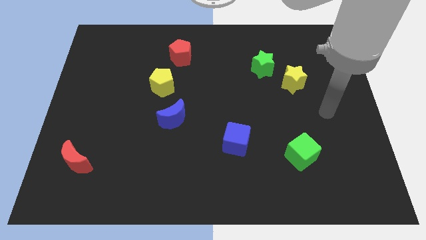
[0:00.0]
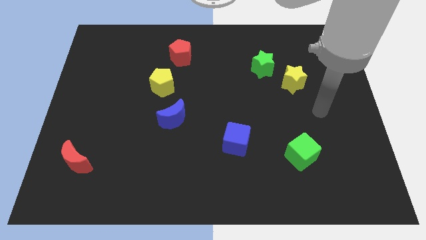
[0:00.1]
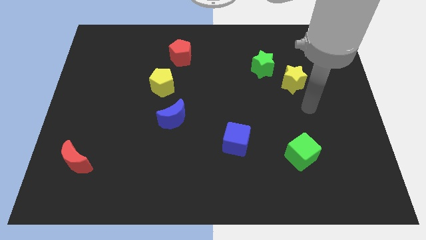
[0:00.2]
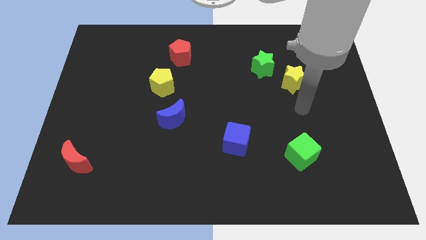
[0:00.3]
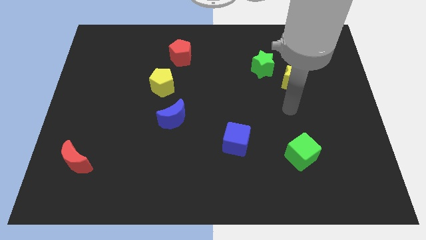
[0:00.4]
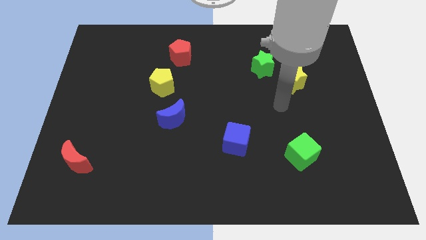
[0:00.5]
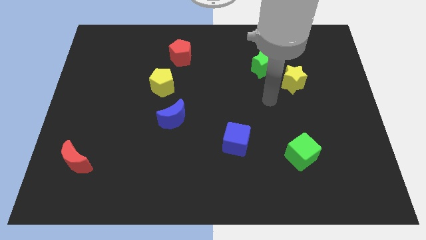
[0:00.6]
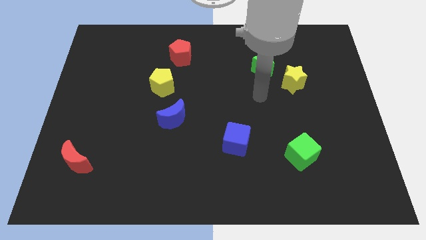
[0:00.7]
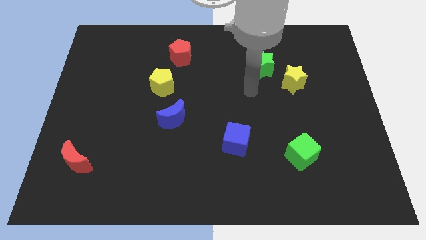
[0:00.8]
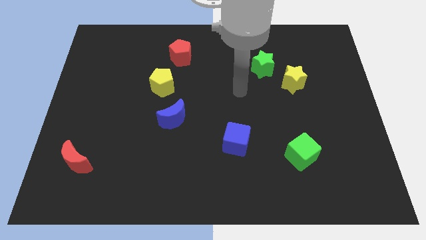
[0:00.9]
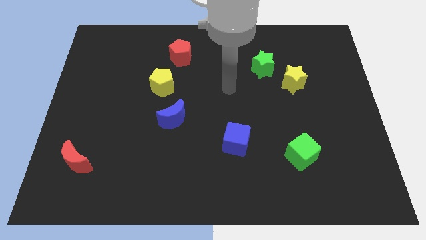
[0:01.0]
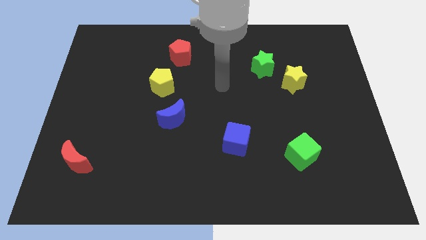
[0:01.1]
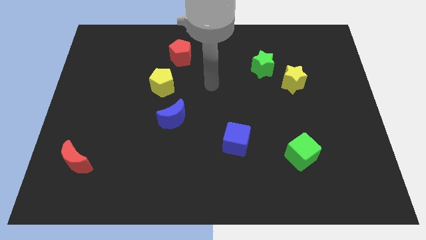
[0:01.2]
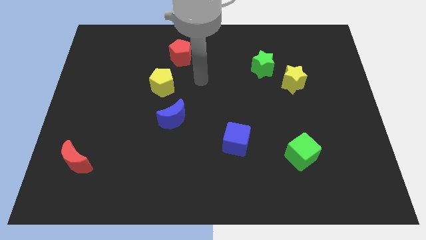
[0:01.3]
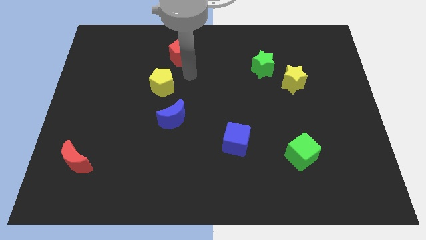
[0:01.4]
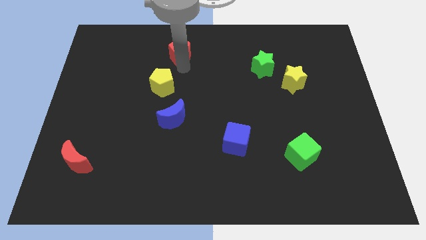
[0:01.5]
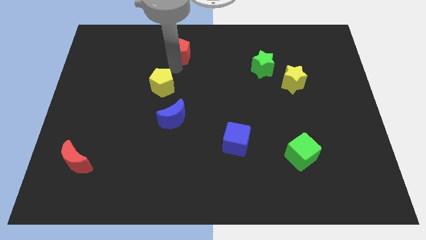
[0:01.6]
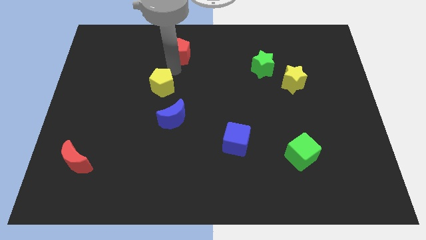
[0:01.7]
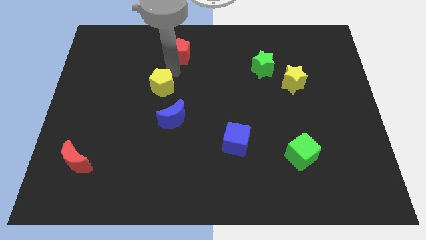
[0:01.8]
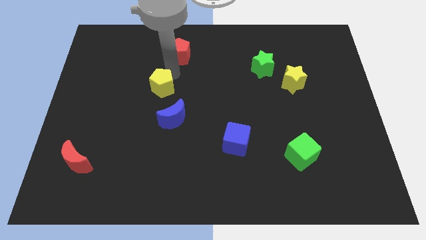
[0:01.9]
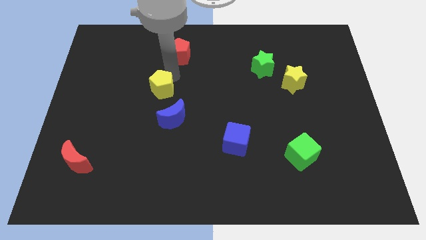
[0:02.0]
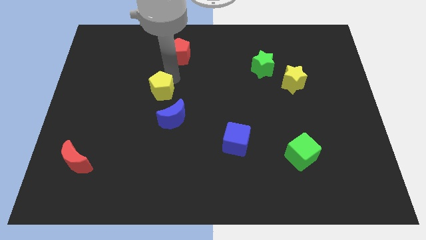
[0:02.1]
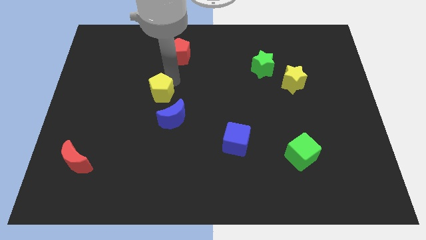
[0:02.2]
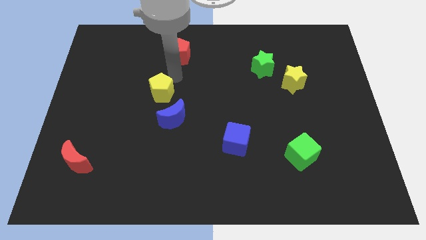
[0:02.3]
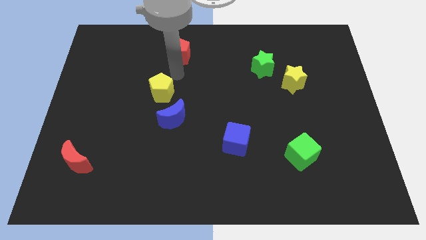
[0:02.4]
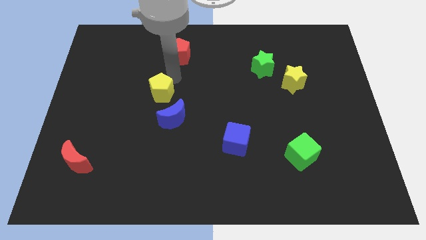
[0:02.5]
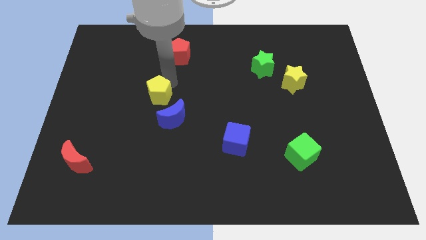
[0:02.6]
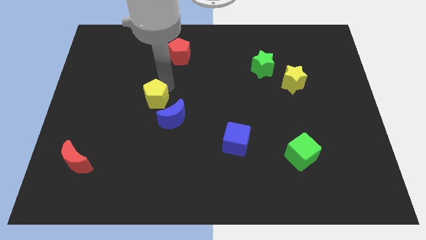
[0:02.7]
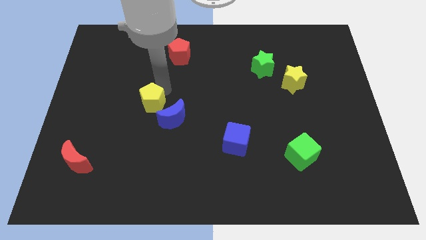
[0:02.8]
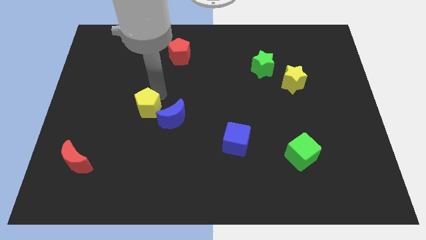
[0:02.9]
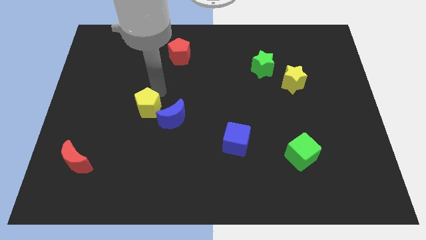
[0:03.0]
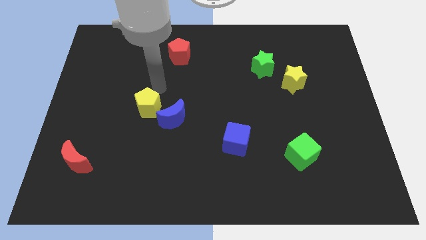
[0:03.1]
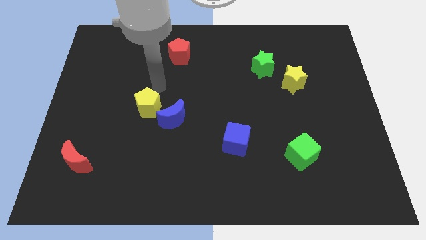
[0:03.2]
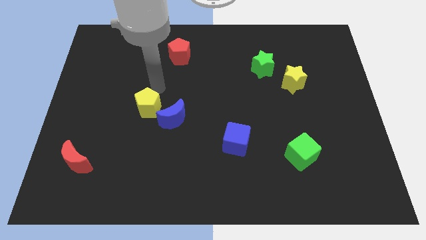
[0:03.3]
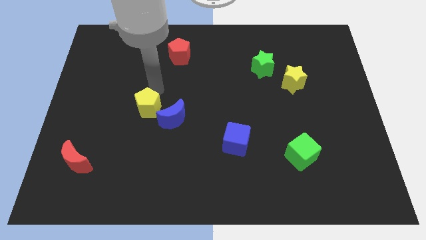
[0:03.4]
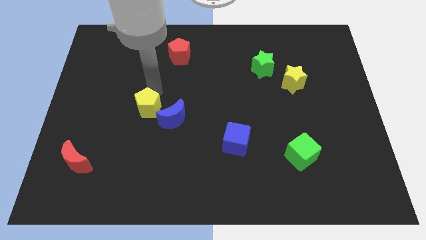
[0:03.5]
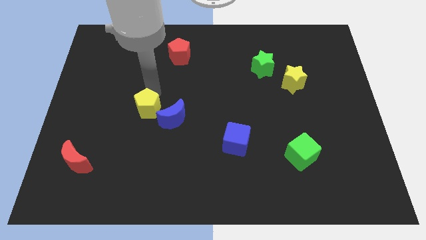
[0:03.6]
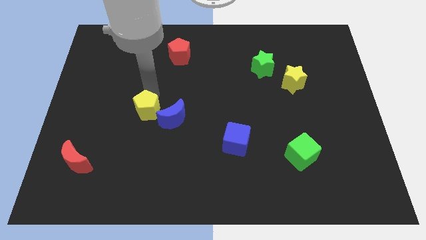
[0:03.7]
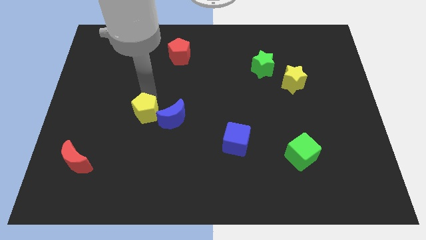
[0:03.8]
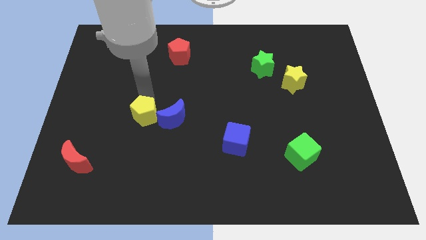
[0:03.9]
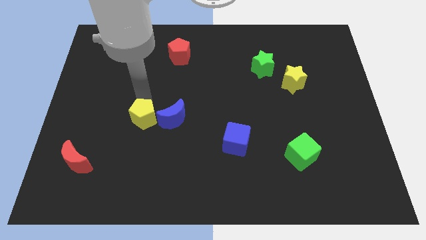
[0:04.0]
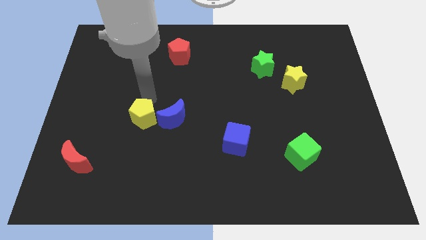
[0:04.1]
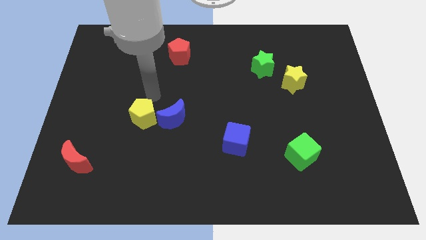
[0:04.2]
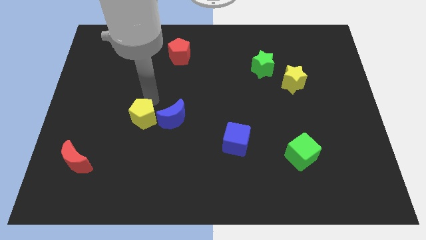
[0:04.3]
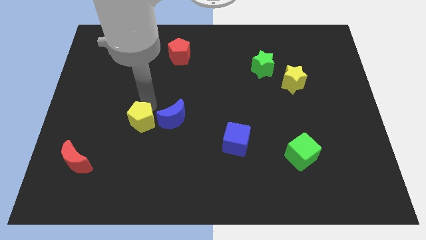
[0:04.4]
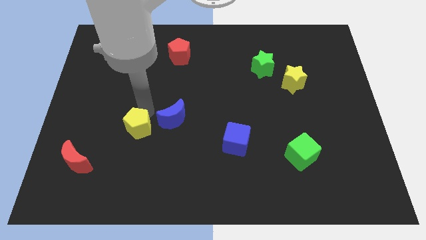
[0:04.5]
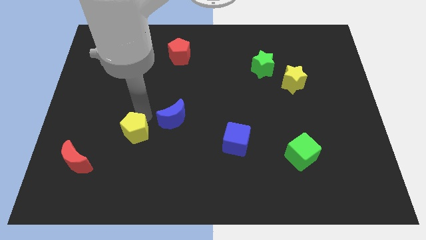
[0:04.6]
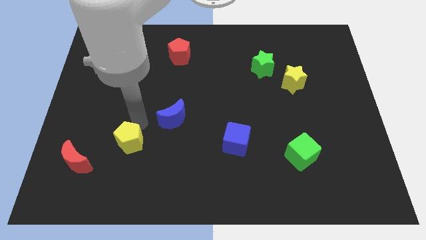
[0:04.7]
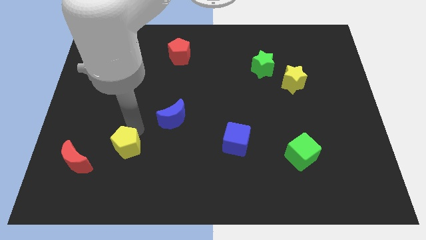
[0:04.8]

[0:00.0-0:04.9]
move the yellow pentagon just right of the red moon

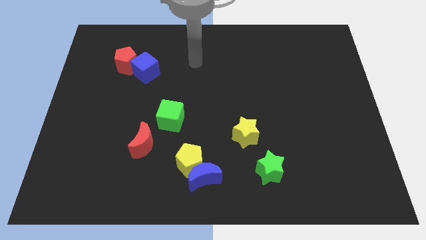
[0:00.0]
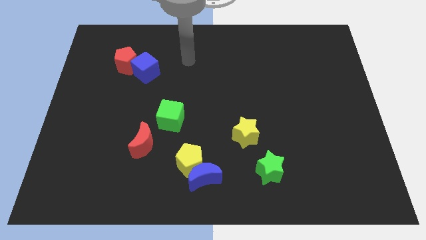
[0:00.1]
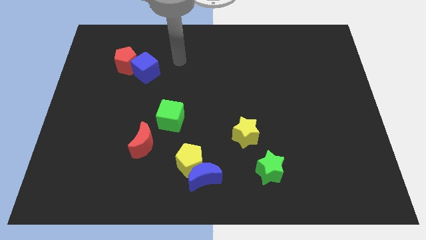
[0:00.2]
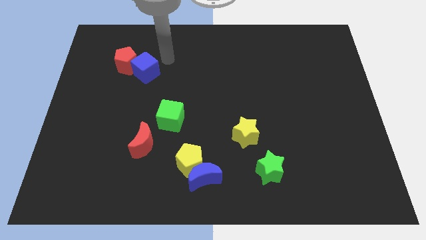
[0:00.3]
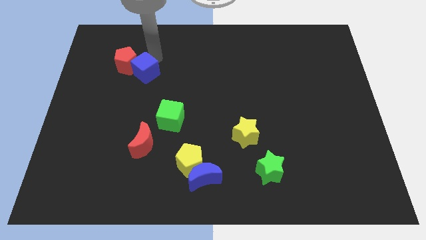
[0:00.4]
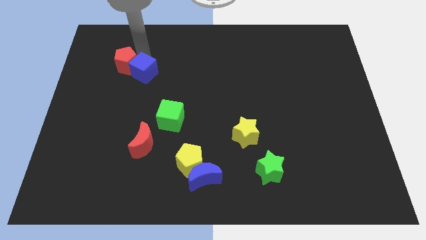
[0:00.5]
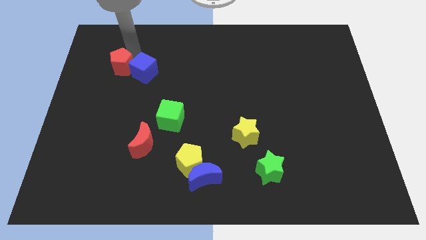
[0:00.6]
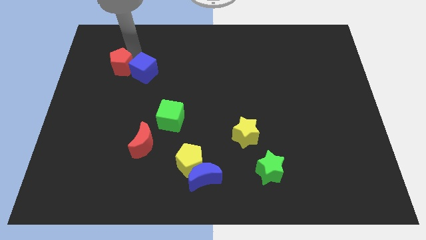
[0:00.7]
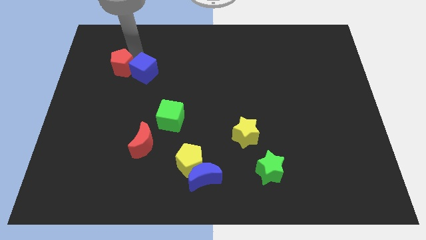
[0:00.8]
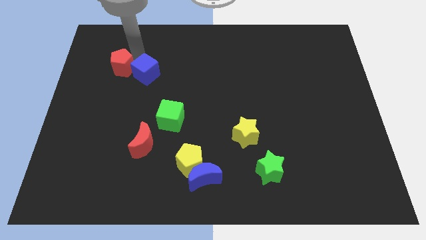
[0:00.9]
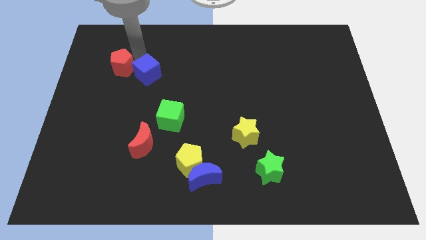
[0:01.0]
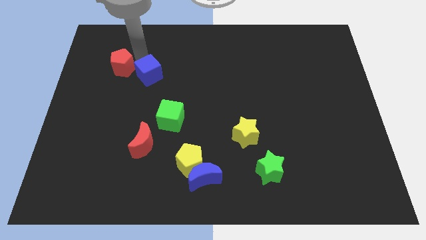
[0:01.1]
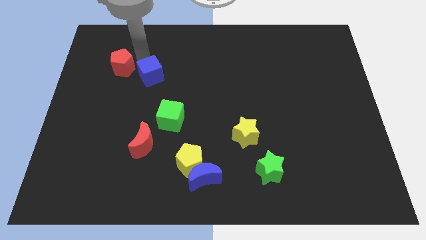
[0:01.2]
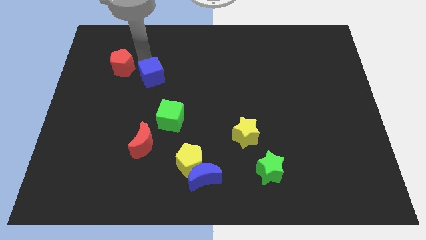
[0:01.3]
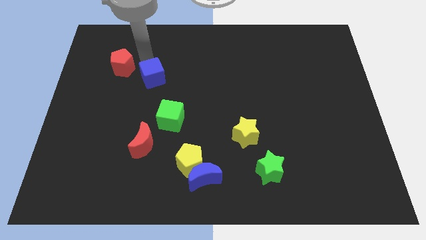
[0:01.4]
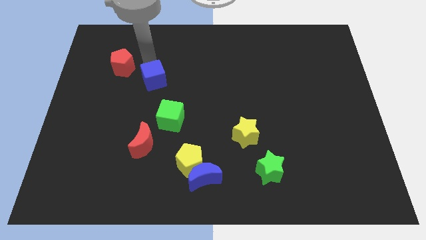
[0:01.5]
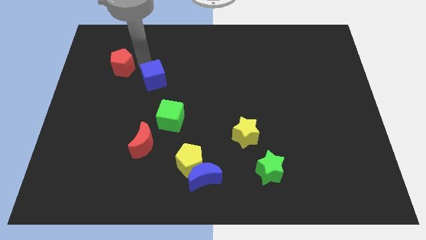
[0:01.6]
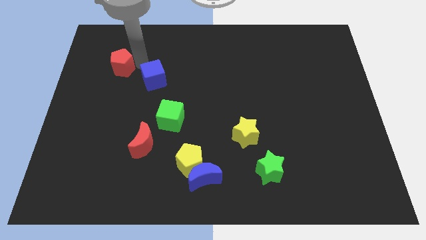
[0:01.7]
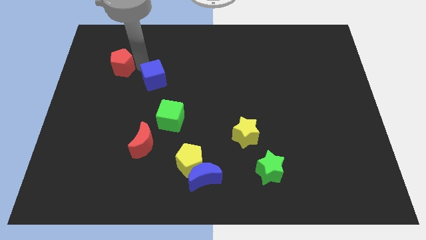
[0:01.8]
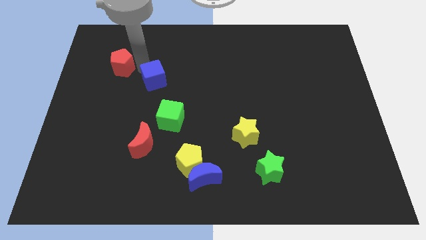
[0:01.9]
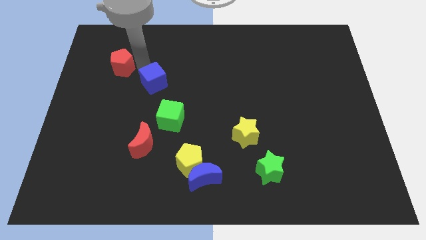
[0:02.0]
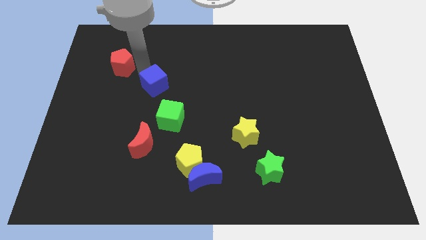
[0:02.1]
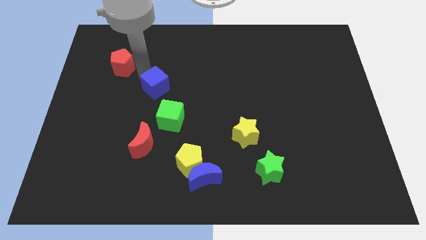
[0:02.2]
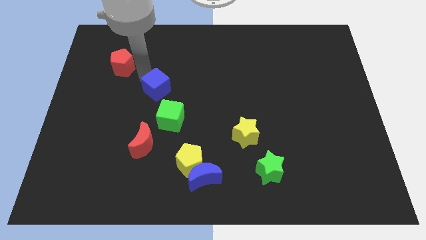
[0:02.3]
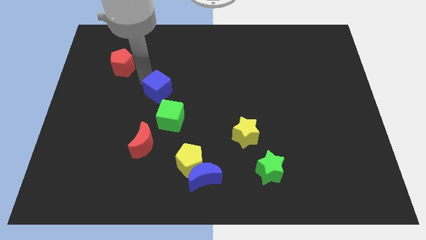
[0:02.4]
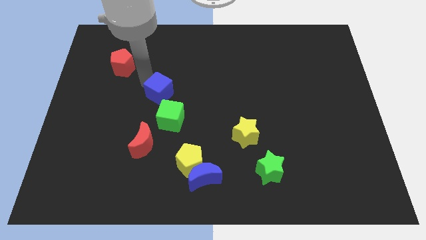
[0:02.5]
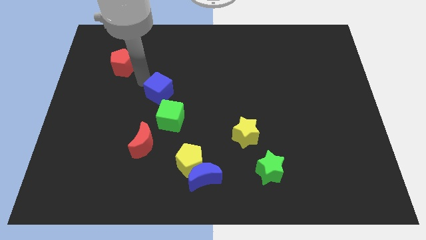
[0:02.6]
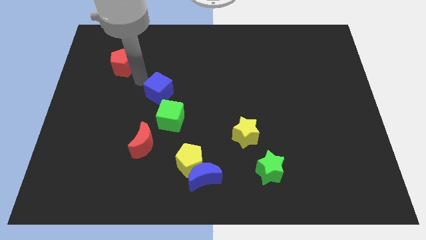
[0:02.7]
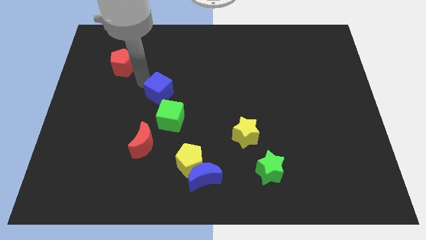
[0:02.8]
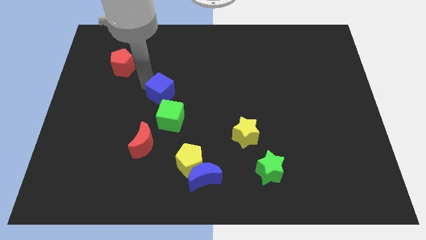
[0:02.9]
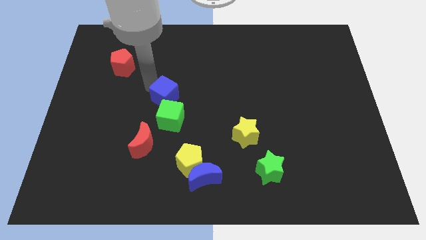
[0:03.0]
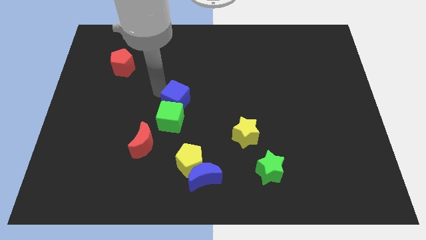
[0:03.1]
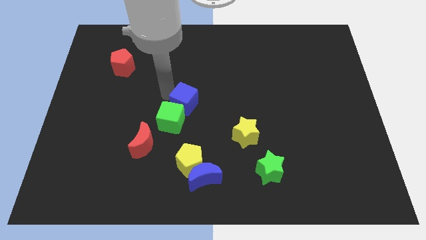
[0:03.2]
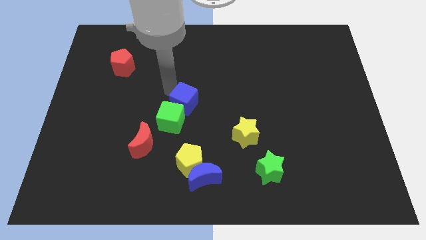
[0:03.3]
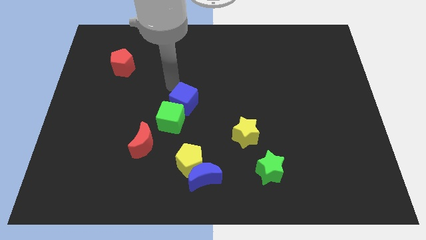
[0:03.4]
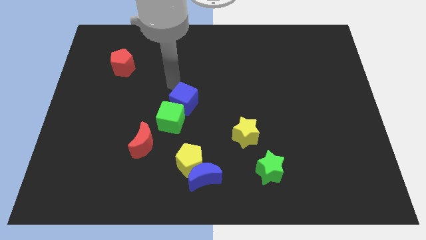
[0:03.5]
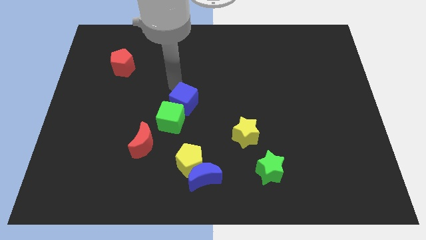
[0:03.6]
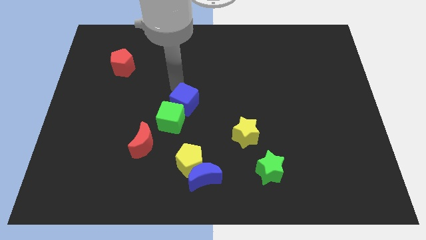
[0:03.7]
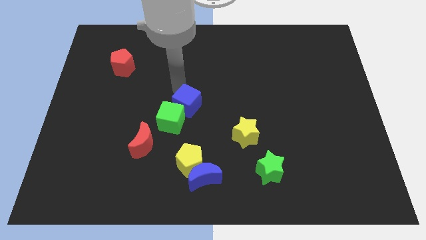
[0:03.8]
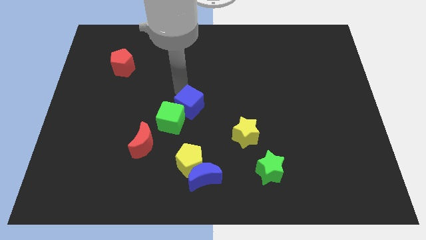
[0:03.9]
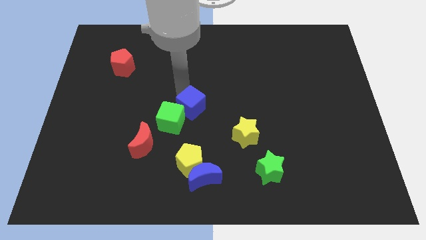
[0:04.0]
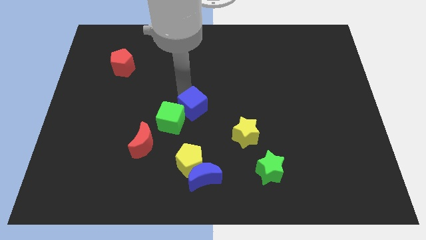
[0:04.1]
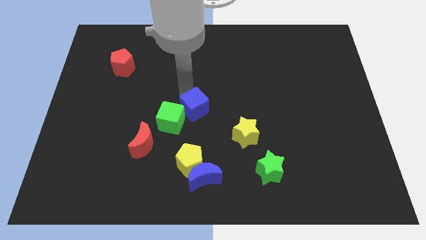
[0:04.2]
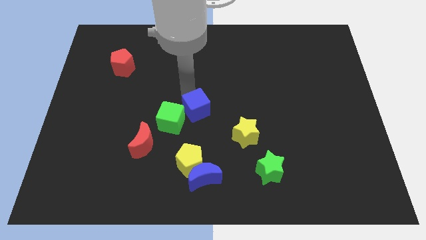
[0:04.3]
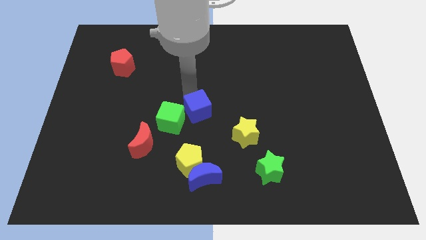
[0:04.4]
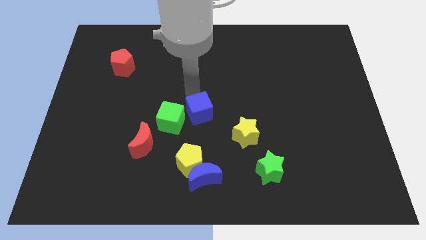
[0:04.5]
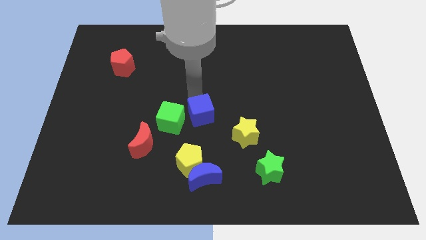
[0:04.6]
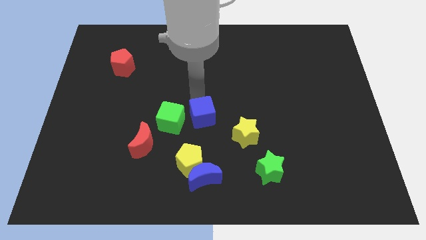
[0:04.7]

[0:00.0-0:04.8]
put the blue cube to the top side of the blue moon
